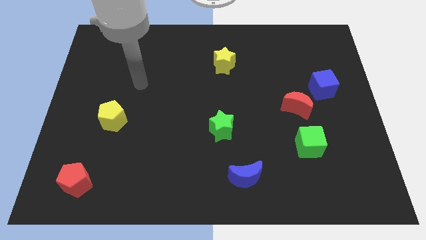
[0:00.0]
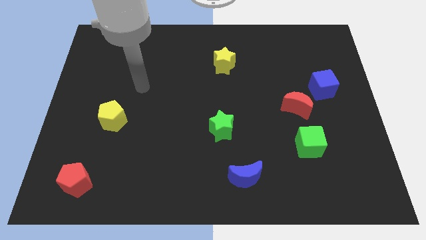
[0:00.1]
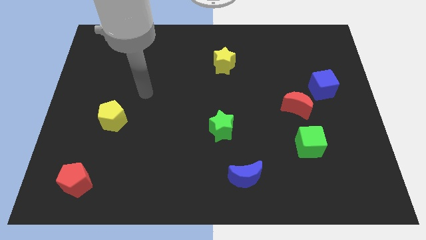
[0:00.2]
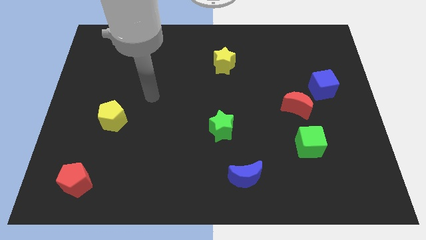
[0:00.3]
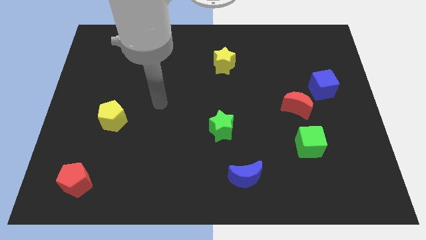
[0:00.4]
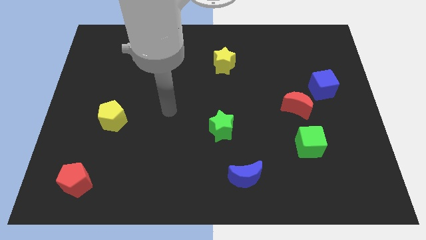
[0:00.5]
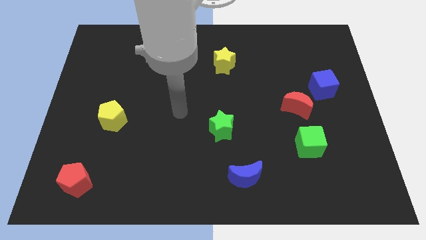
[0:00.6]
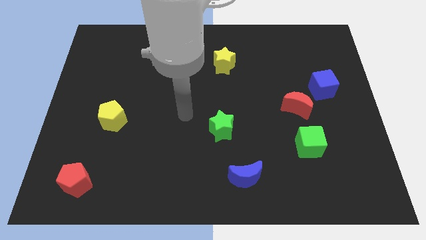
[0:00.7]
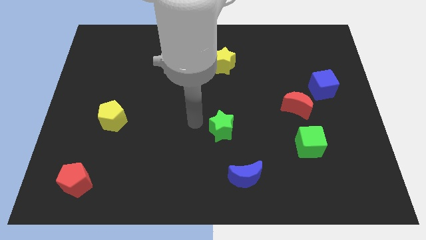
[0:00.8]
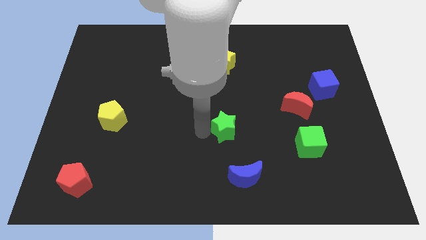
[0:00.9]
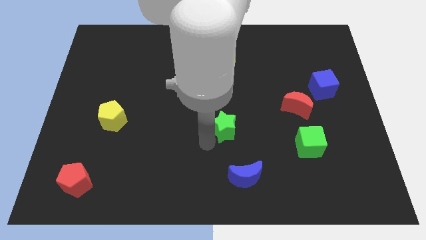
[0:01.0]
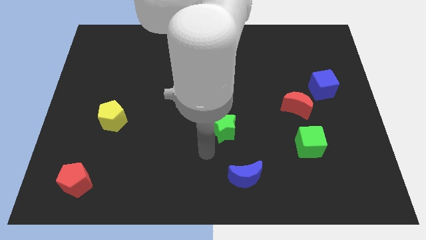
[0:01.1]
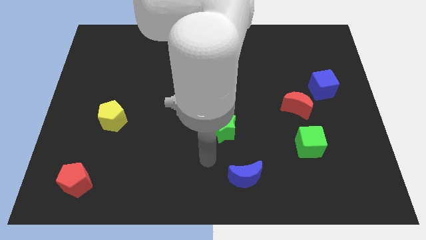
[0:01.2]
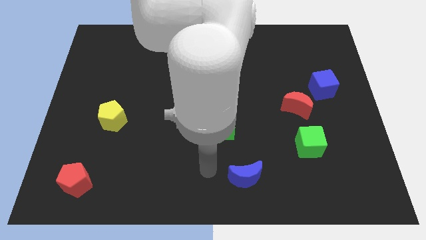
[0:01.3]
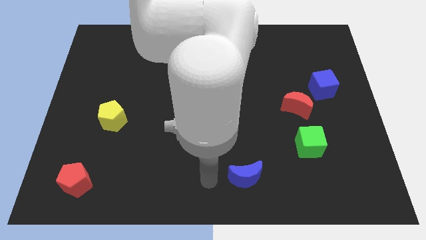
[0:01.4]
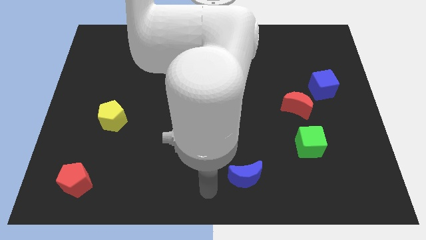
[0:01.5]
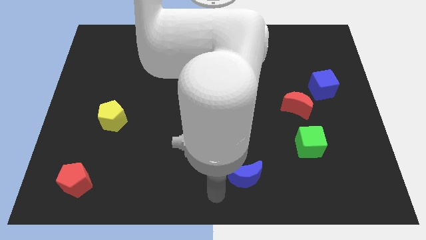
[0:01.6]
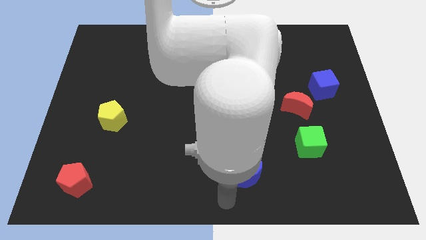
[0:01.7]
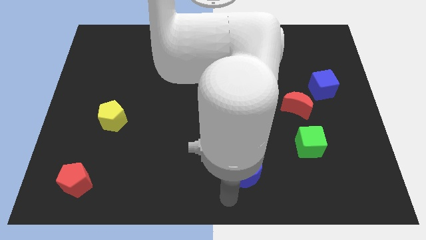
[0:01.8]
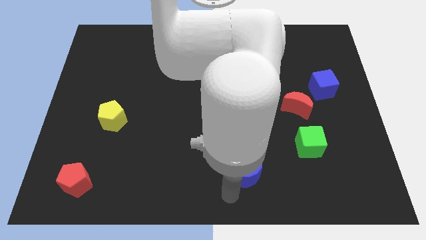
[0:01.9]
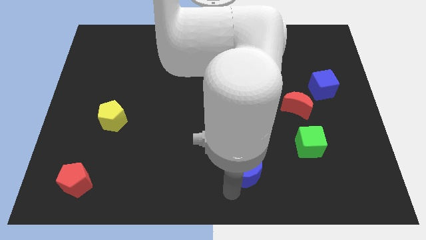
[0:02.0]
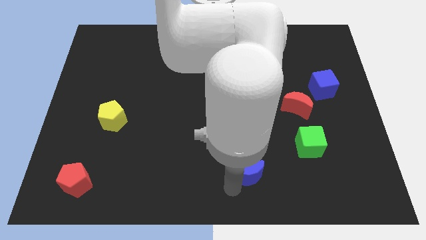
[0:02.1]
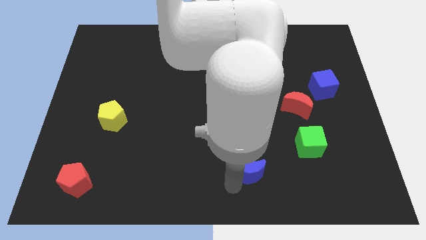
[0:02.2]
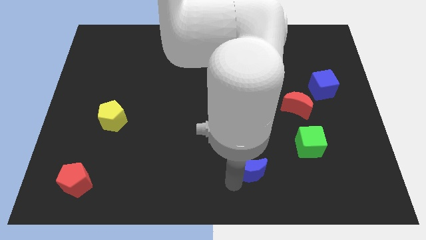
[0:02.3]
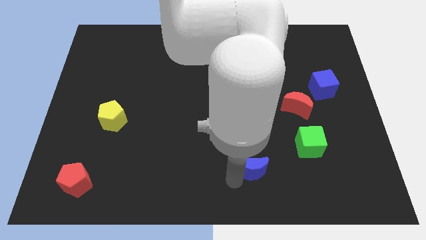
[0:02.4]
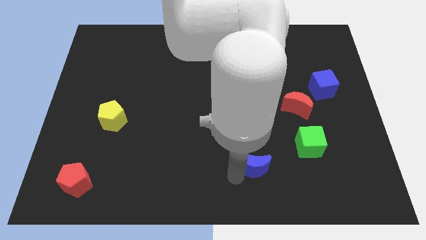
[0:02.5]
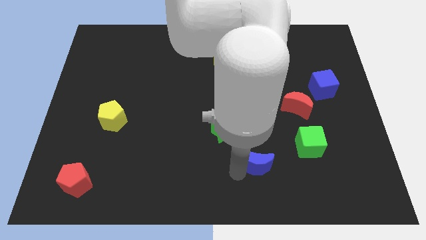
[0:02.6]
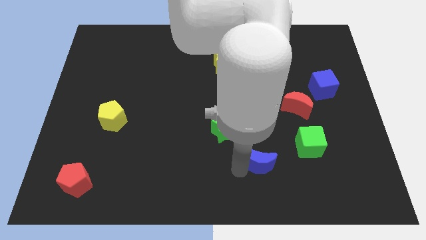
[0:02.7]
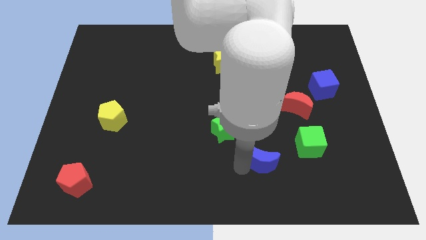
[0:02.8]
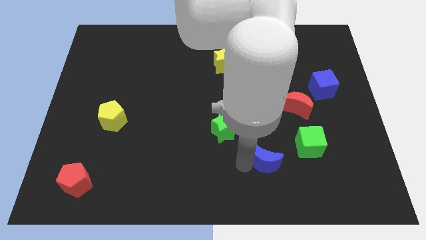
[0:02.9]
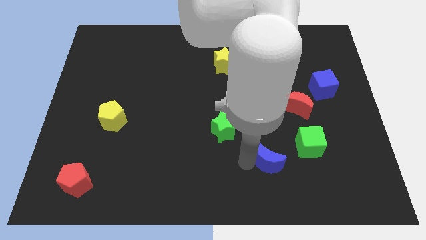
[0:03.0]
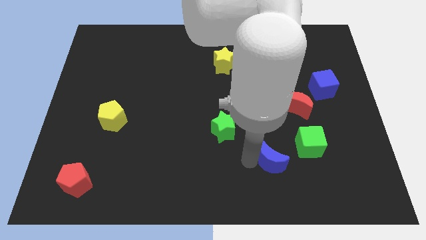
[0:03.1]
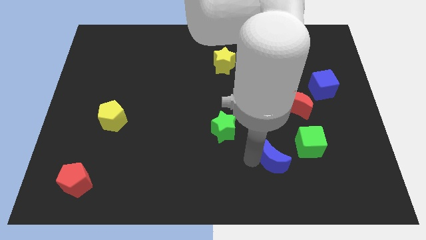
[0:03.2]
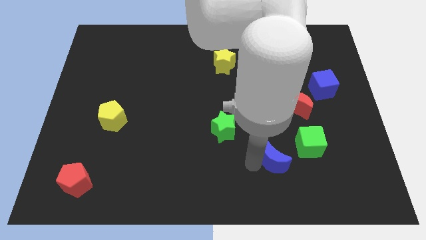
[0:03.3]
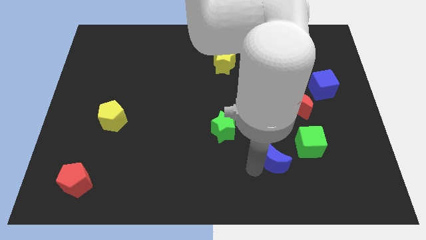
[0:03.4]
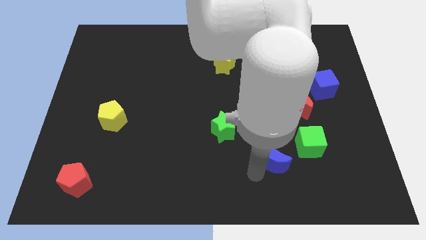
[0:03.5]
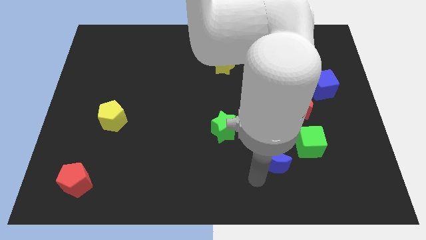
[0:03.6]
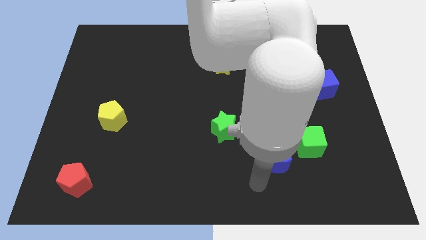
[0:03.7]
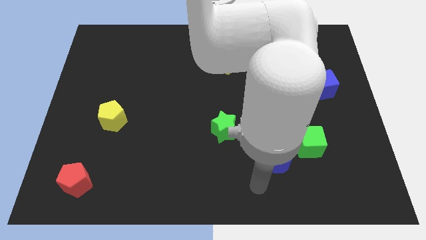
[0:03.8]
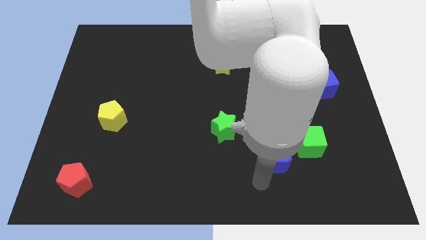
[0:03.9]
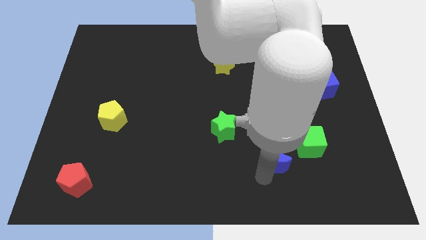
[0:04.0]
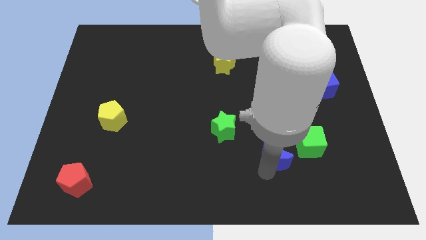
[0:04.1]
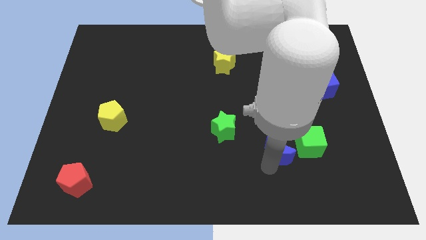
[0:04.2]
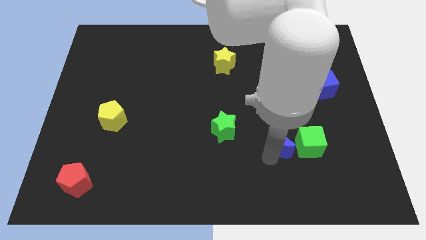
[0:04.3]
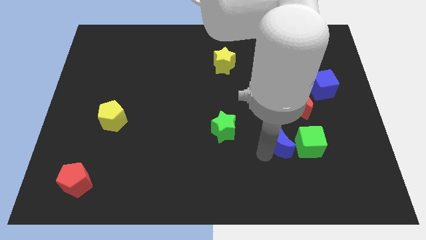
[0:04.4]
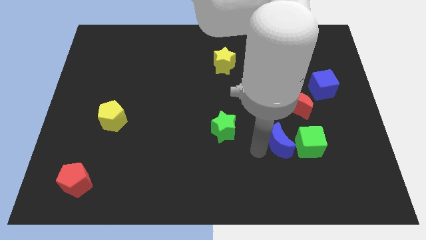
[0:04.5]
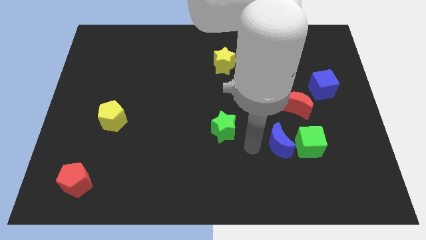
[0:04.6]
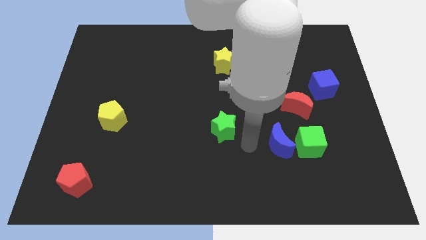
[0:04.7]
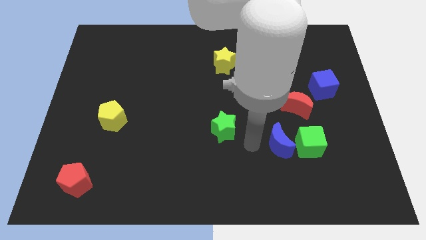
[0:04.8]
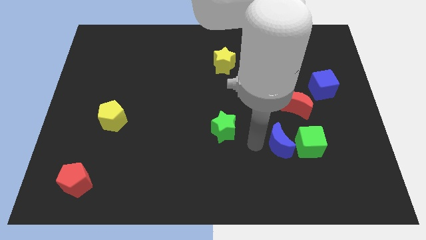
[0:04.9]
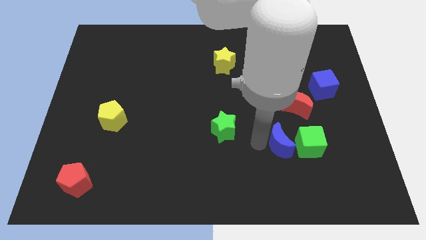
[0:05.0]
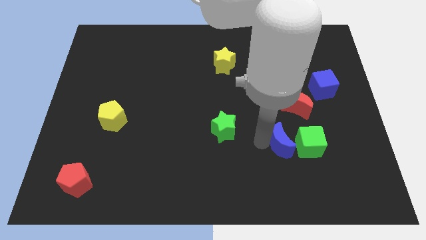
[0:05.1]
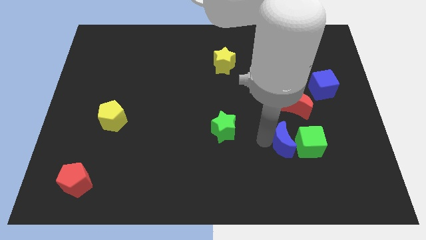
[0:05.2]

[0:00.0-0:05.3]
put the blue moon towards the green cube
